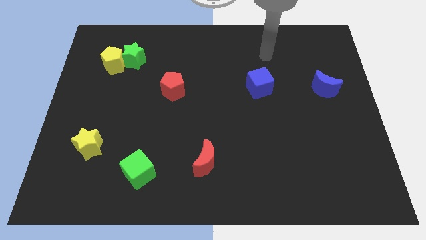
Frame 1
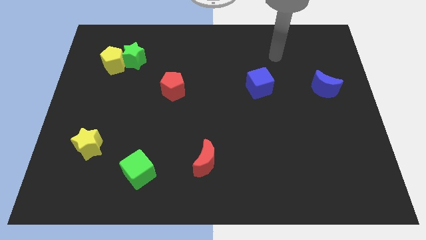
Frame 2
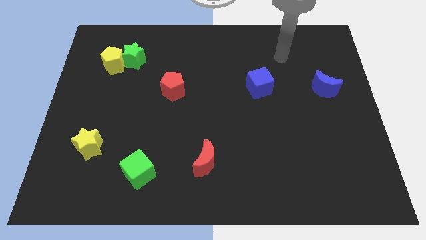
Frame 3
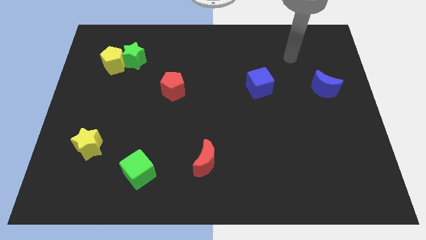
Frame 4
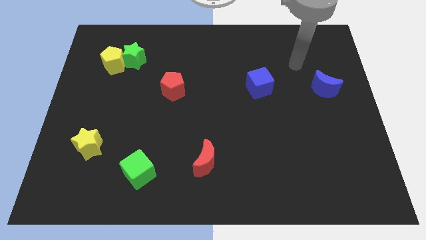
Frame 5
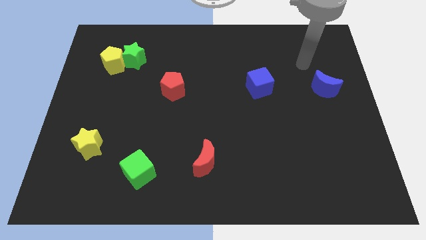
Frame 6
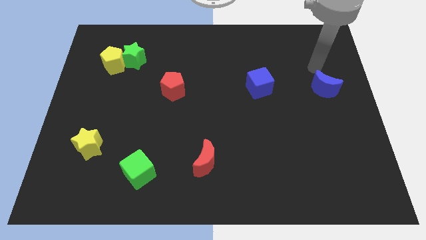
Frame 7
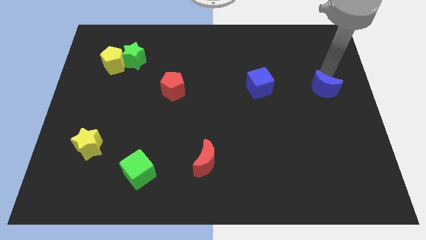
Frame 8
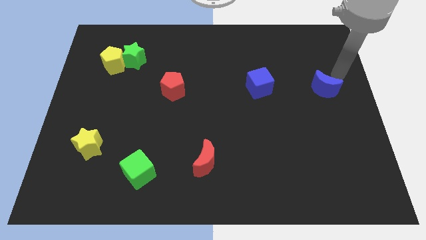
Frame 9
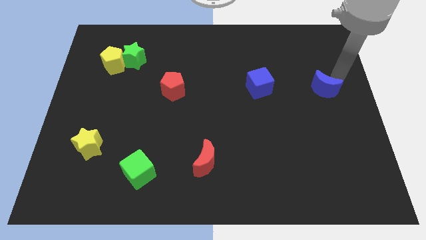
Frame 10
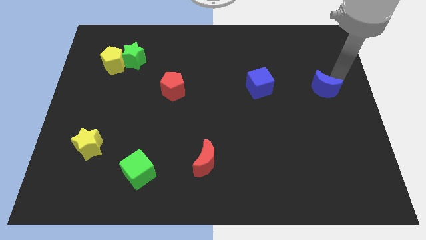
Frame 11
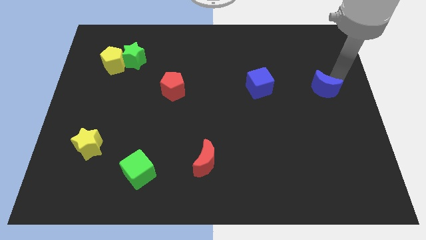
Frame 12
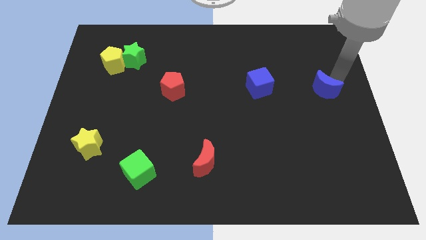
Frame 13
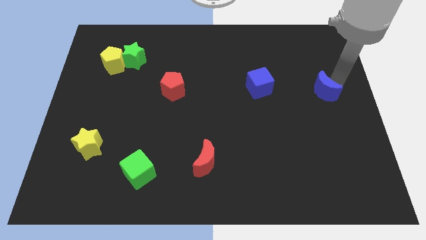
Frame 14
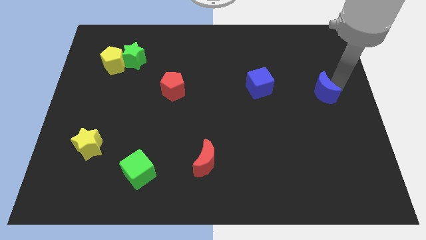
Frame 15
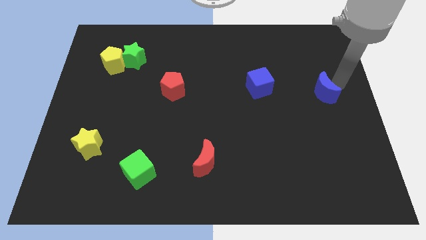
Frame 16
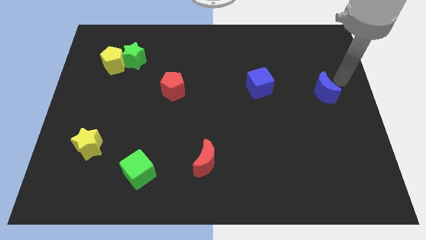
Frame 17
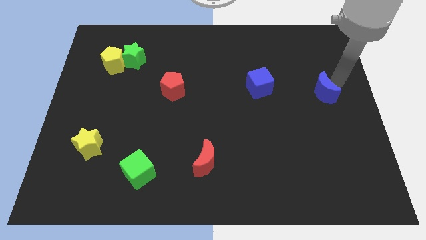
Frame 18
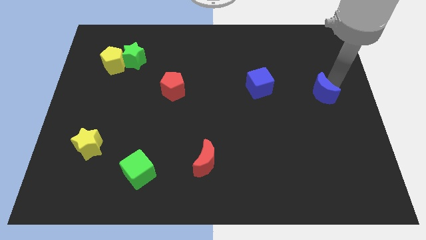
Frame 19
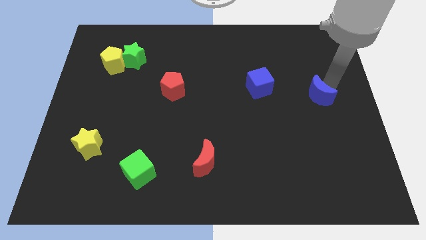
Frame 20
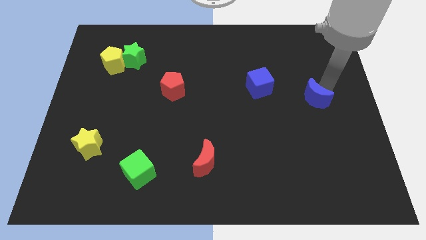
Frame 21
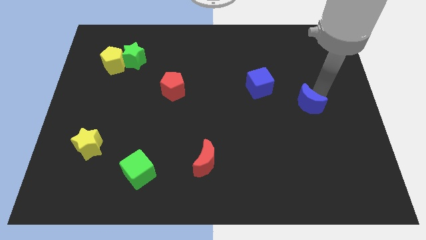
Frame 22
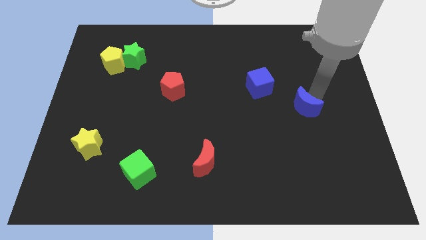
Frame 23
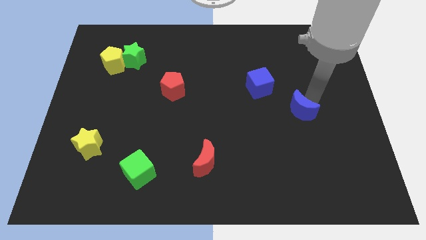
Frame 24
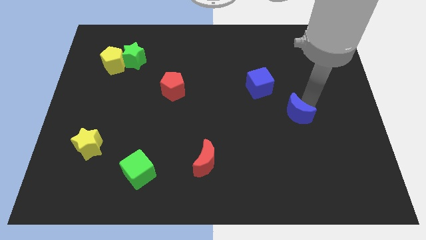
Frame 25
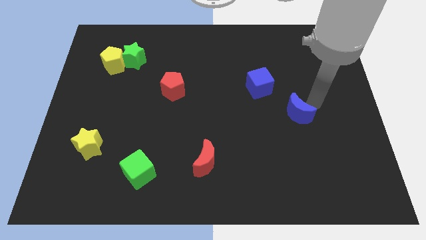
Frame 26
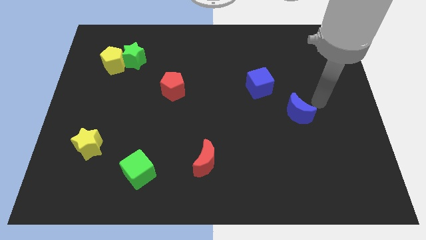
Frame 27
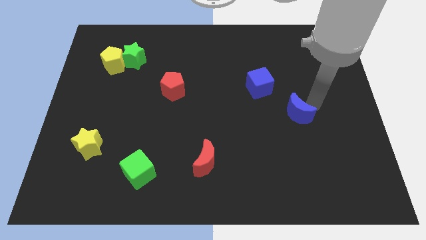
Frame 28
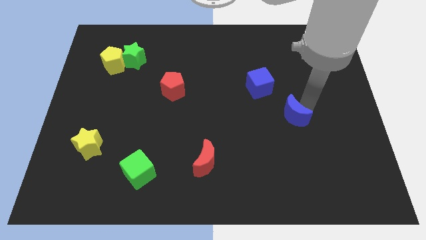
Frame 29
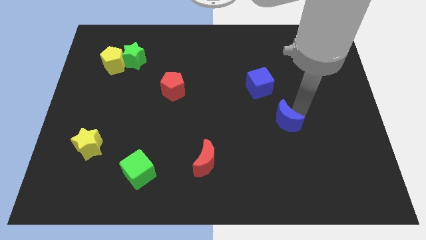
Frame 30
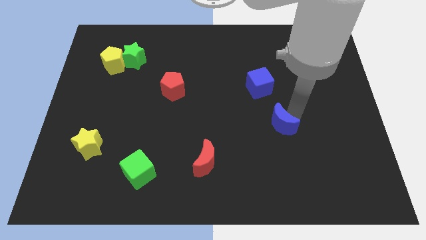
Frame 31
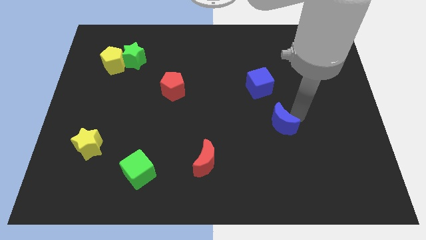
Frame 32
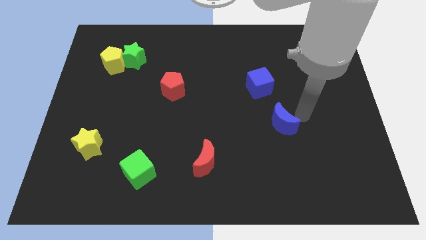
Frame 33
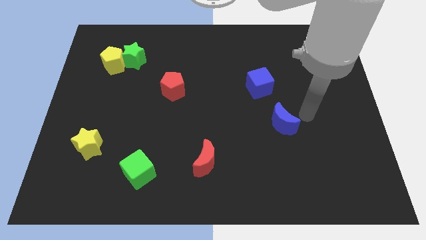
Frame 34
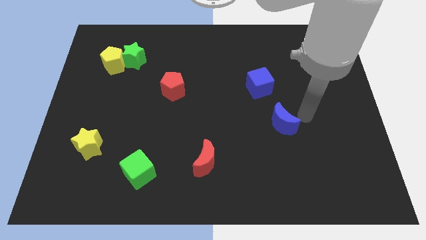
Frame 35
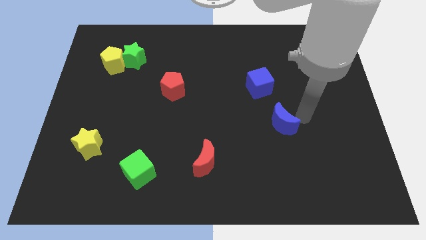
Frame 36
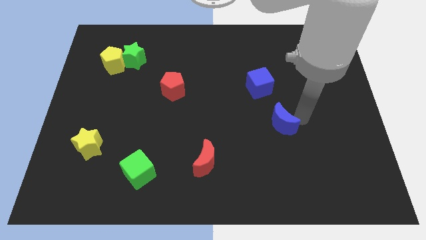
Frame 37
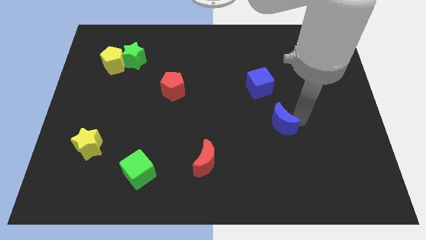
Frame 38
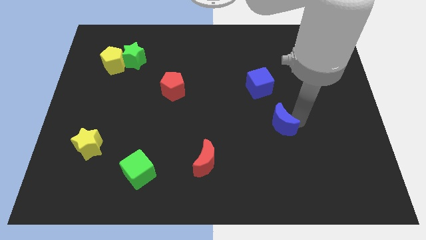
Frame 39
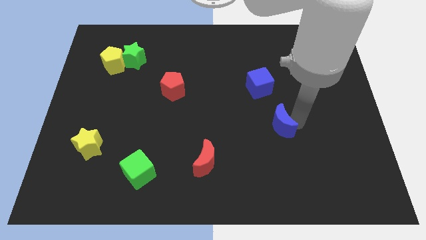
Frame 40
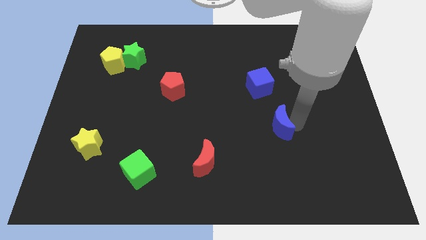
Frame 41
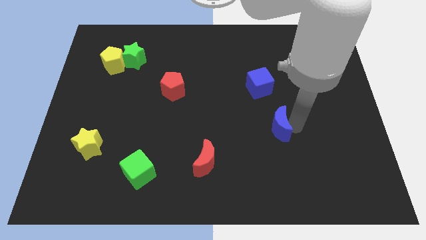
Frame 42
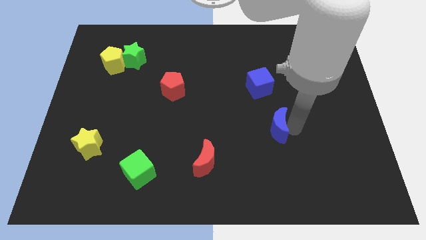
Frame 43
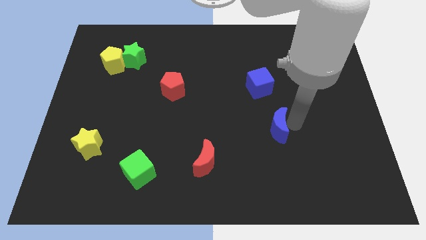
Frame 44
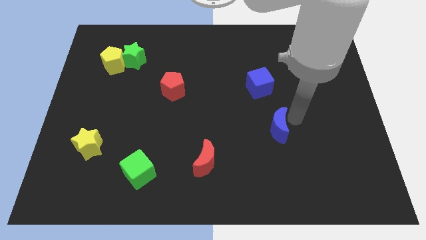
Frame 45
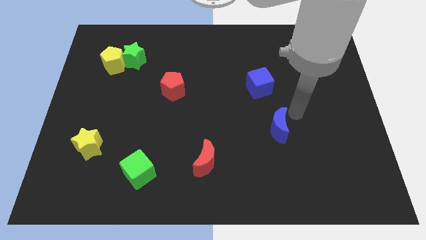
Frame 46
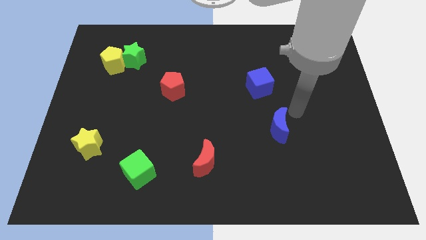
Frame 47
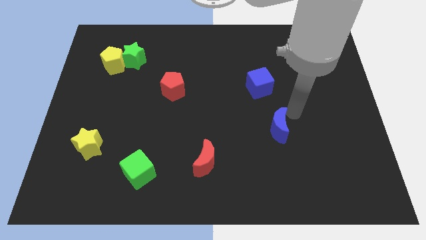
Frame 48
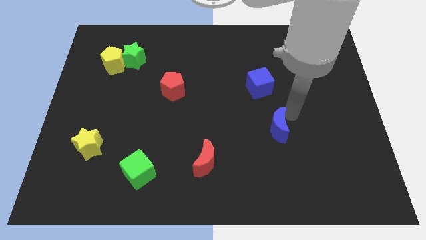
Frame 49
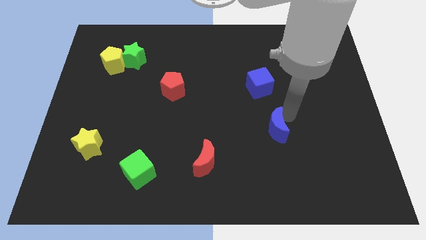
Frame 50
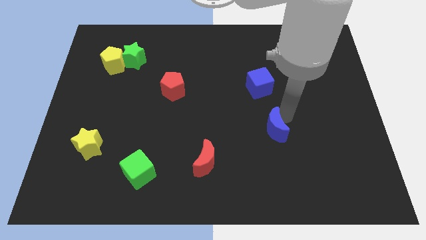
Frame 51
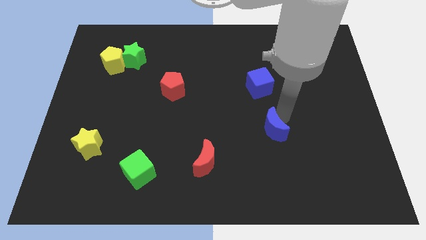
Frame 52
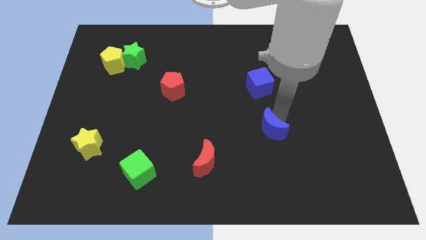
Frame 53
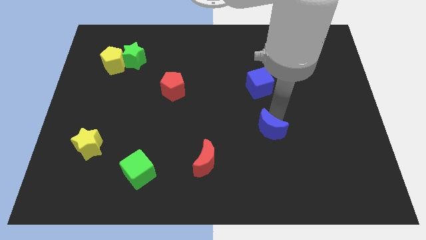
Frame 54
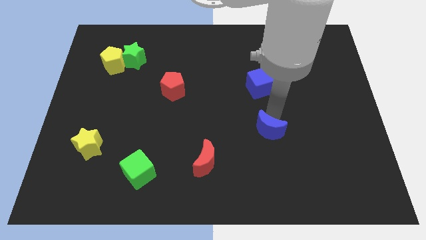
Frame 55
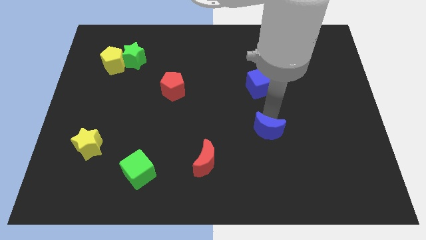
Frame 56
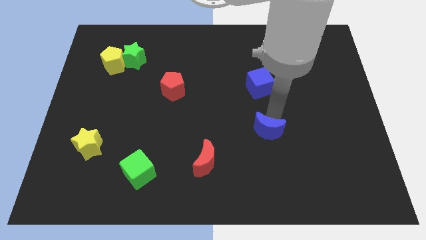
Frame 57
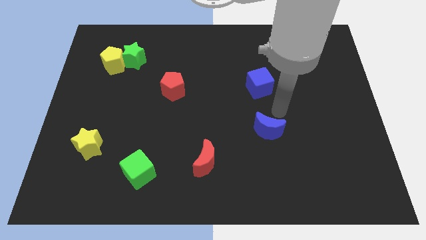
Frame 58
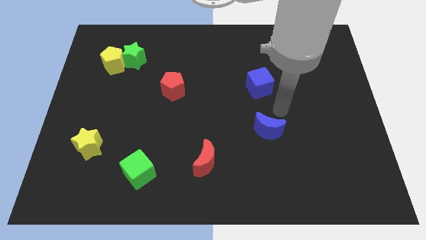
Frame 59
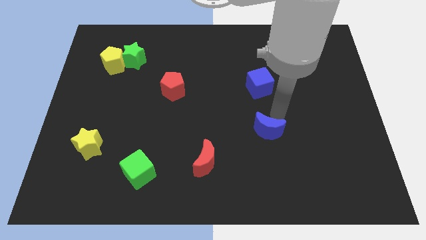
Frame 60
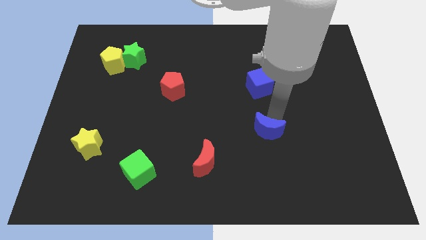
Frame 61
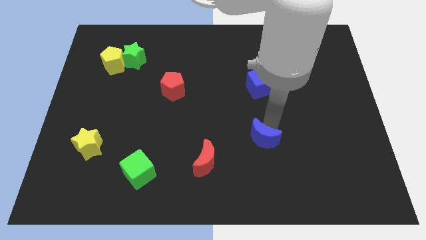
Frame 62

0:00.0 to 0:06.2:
move the blue moon down and then left

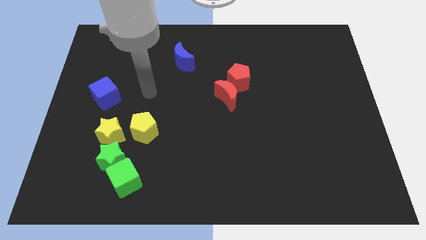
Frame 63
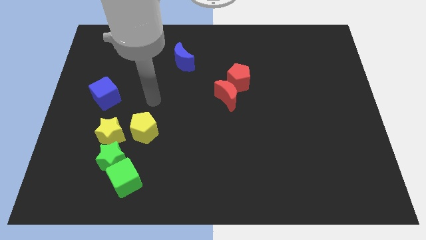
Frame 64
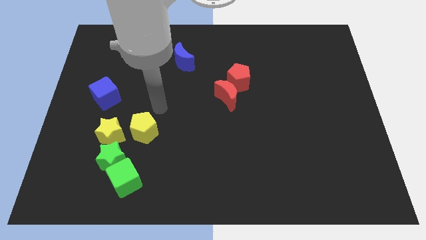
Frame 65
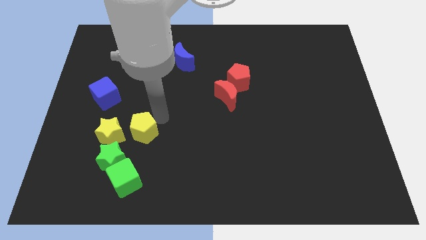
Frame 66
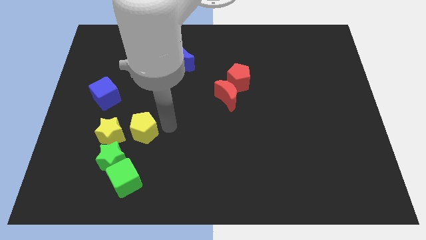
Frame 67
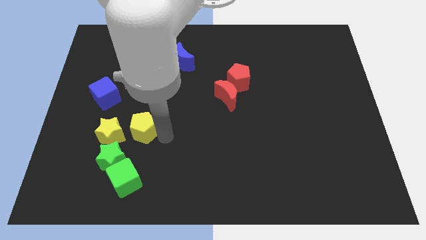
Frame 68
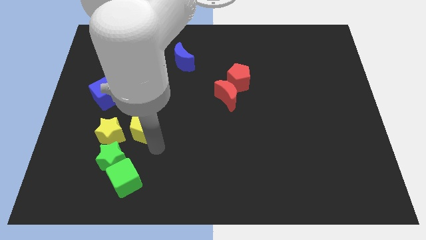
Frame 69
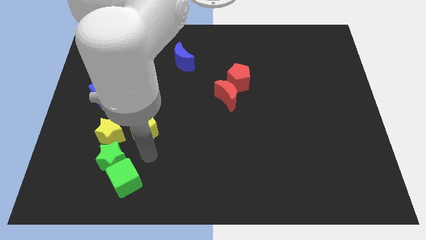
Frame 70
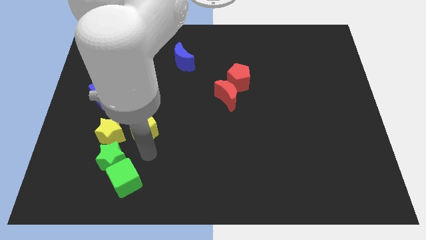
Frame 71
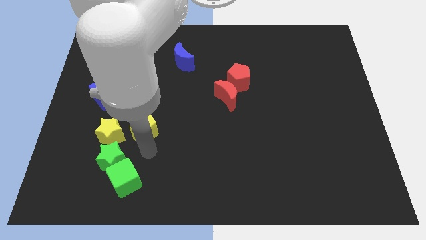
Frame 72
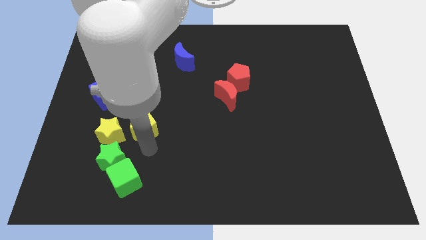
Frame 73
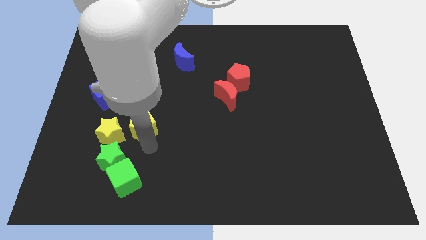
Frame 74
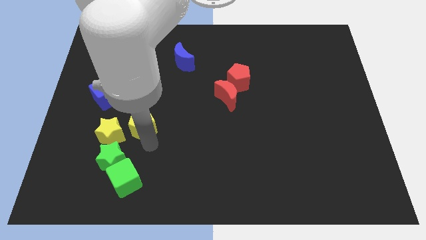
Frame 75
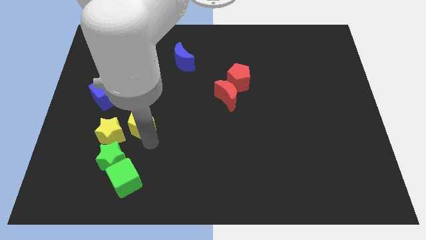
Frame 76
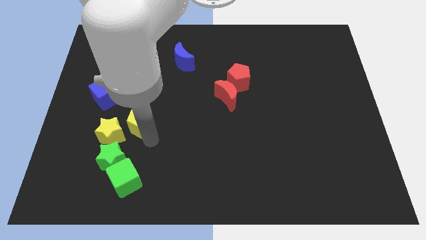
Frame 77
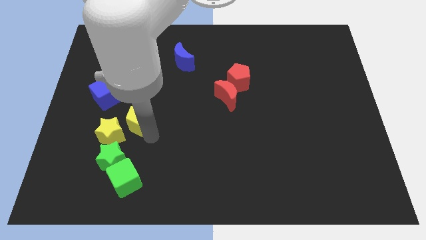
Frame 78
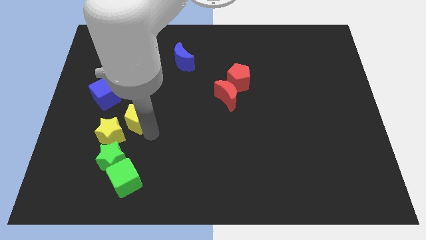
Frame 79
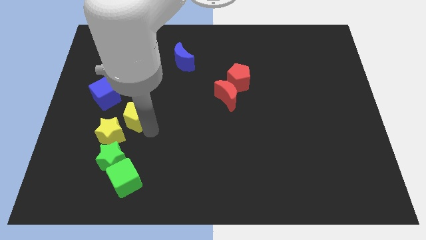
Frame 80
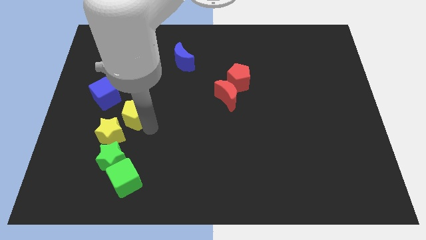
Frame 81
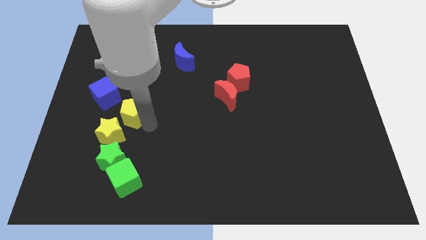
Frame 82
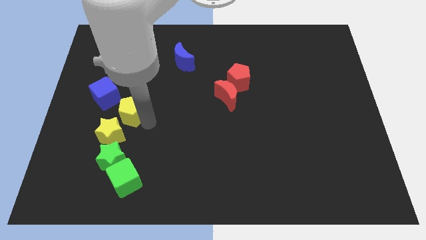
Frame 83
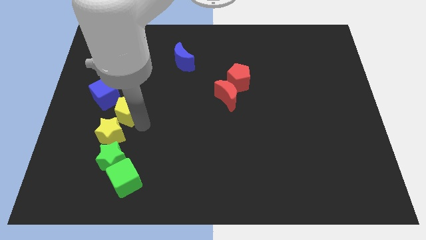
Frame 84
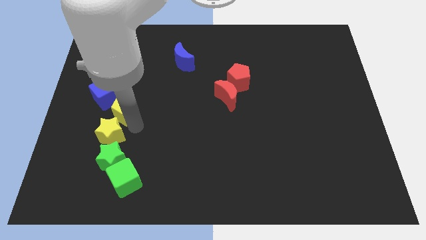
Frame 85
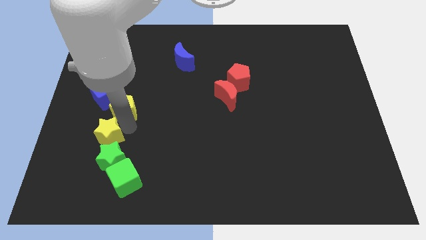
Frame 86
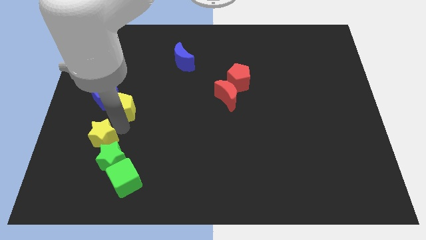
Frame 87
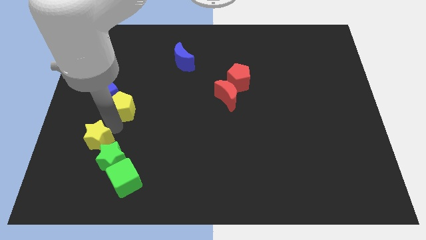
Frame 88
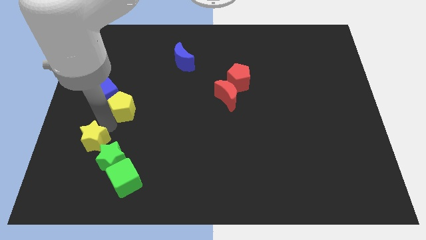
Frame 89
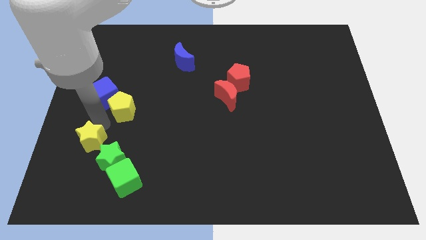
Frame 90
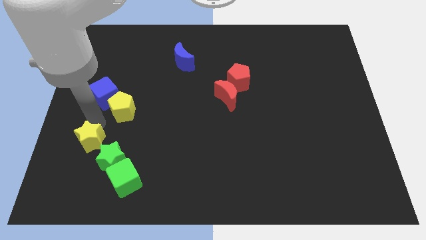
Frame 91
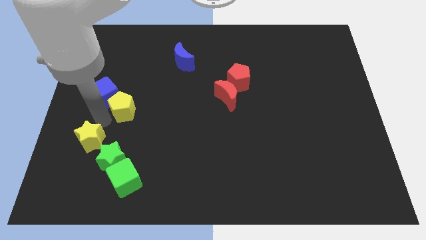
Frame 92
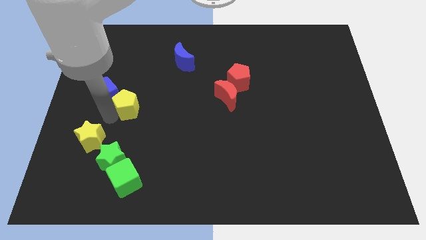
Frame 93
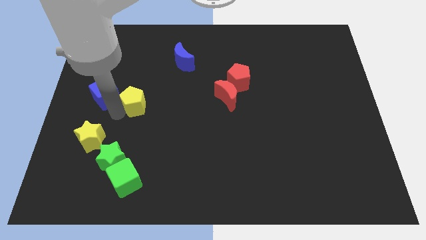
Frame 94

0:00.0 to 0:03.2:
slightly push the yellow pentagon up
